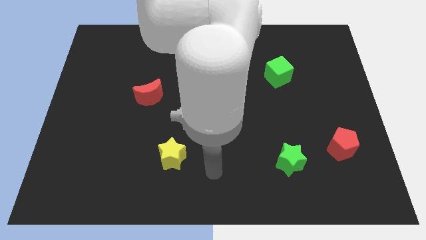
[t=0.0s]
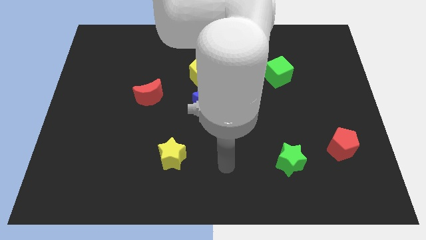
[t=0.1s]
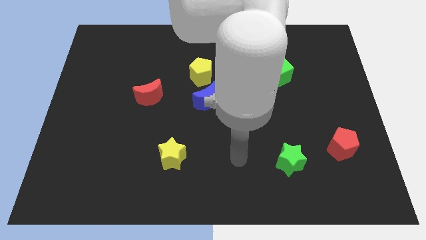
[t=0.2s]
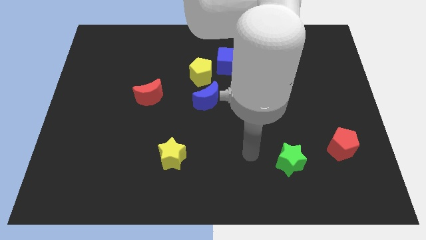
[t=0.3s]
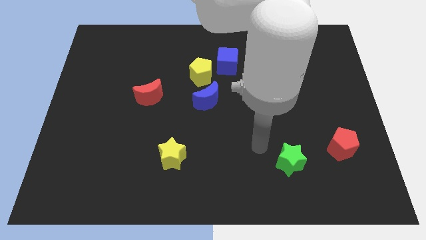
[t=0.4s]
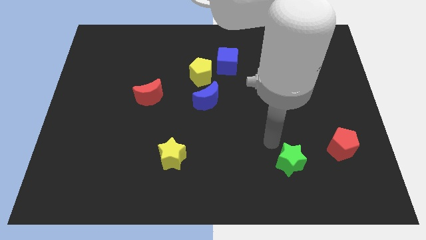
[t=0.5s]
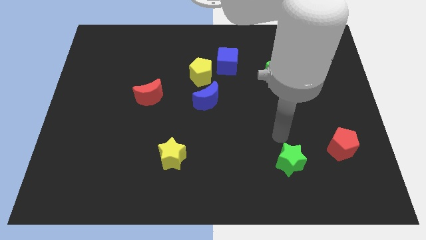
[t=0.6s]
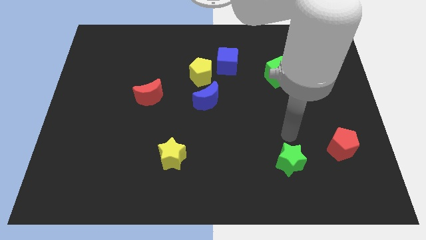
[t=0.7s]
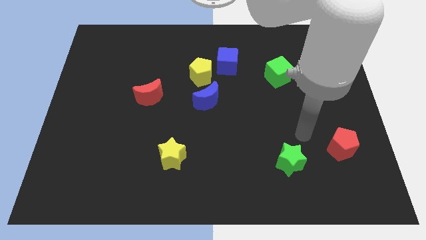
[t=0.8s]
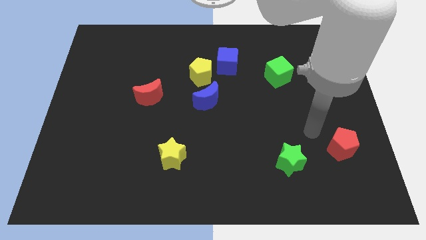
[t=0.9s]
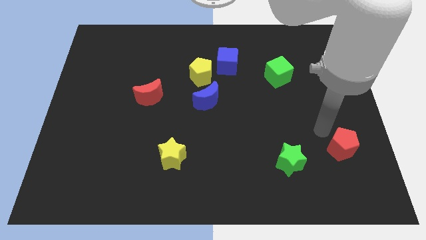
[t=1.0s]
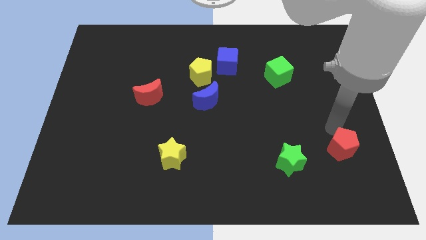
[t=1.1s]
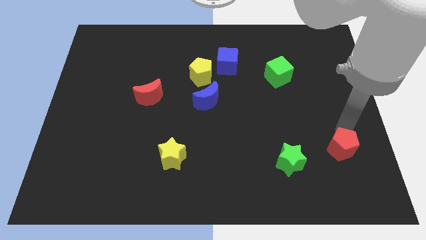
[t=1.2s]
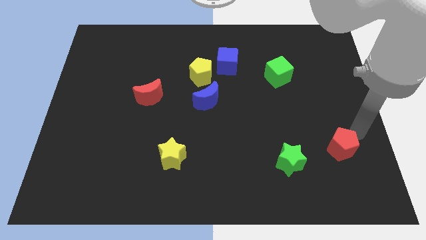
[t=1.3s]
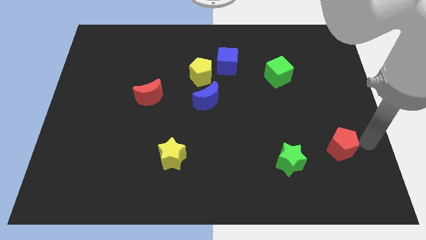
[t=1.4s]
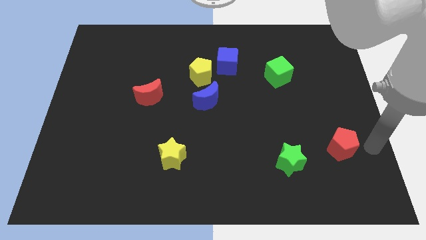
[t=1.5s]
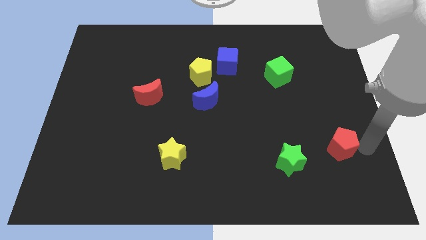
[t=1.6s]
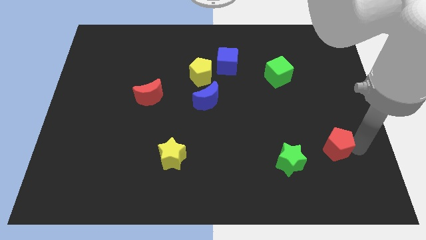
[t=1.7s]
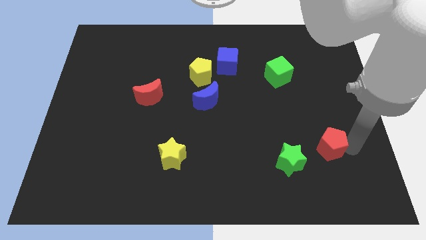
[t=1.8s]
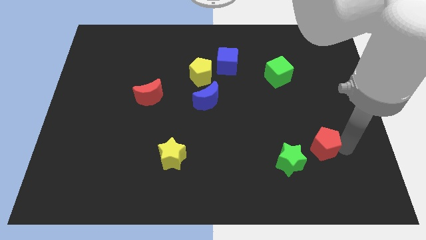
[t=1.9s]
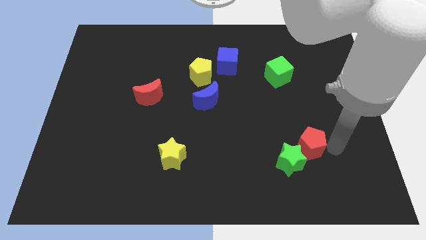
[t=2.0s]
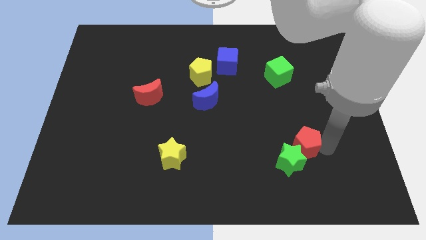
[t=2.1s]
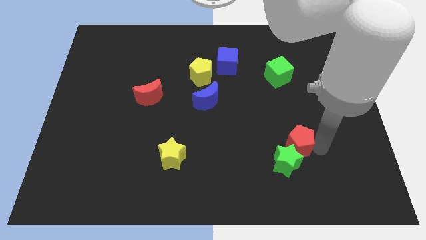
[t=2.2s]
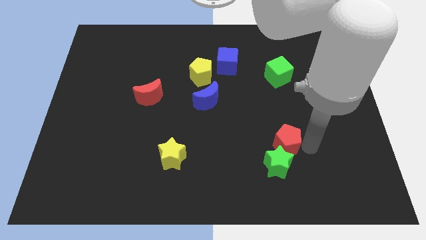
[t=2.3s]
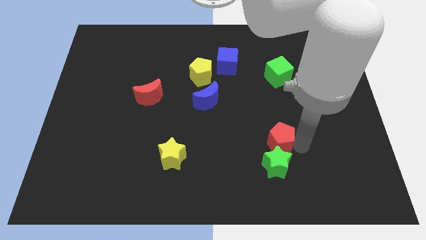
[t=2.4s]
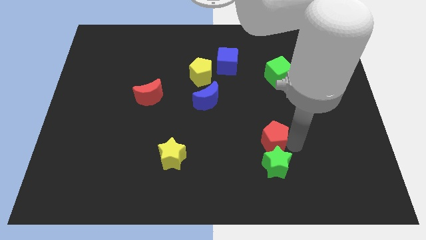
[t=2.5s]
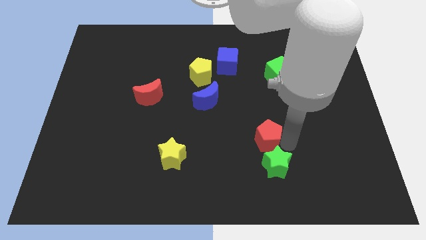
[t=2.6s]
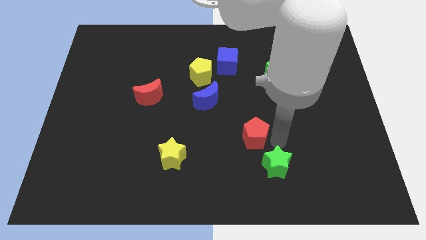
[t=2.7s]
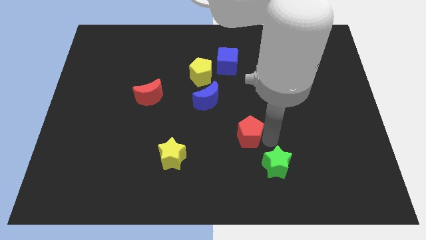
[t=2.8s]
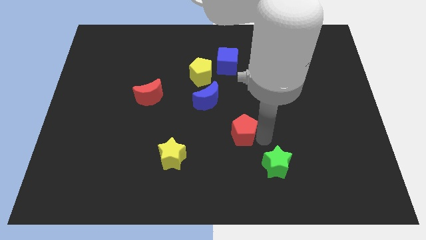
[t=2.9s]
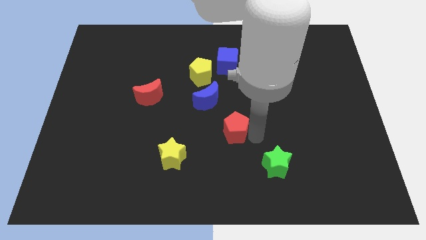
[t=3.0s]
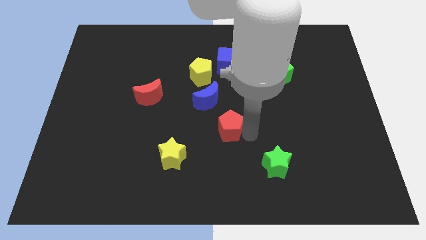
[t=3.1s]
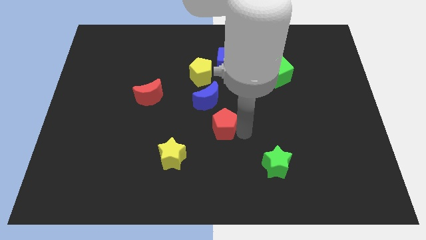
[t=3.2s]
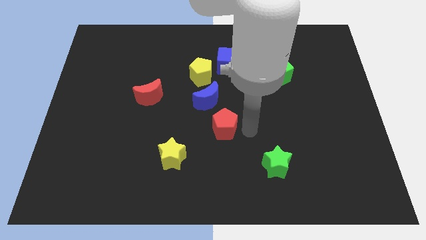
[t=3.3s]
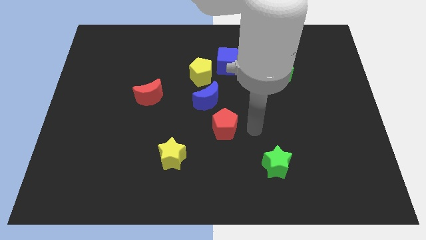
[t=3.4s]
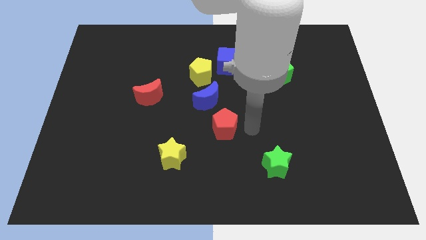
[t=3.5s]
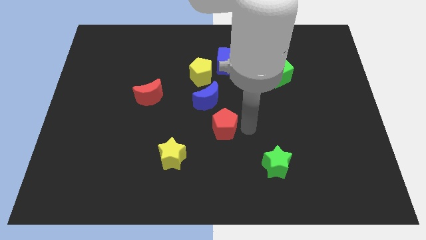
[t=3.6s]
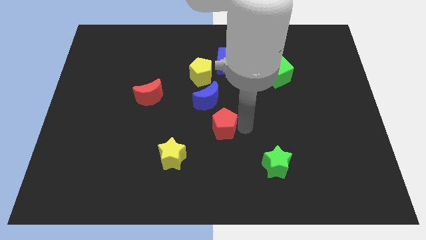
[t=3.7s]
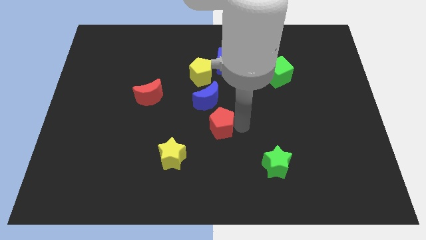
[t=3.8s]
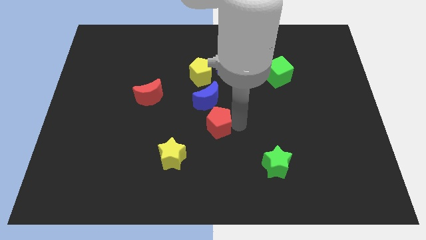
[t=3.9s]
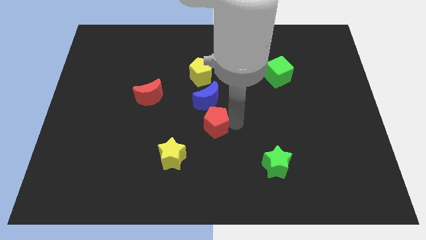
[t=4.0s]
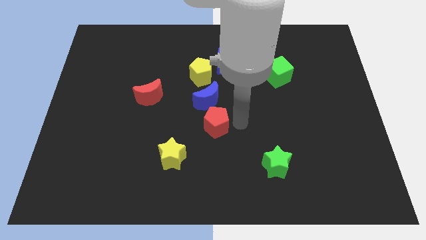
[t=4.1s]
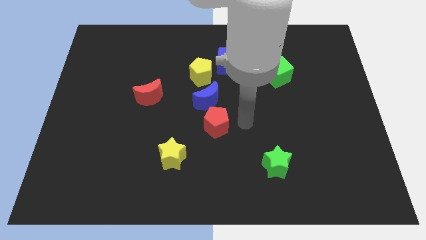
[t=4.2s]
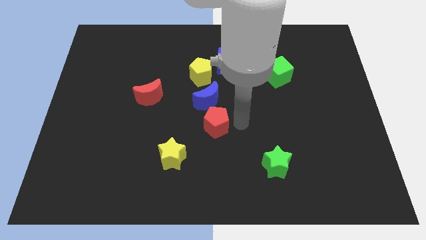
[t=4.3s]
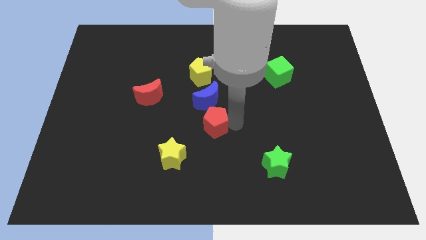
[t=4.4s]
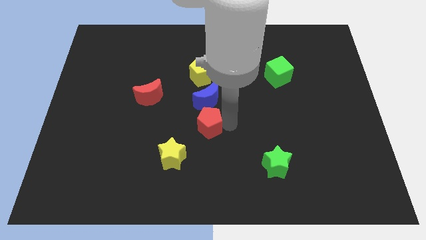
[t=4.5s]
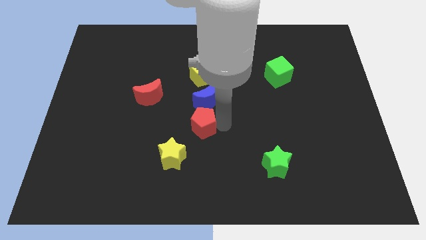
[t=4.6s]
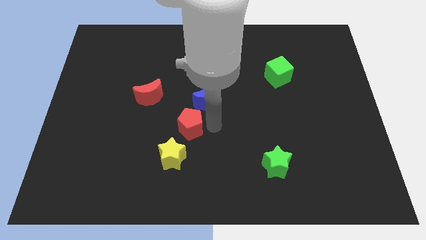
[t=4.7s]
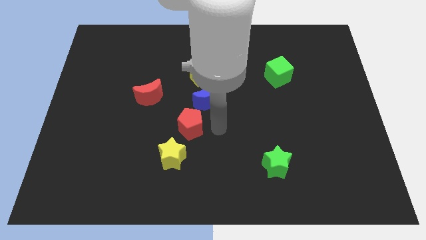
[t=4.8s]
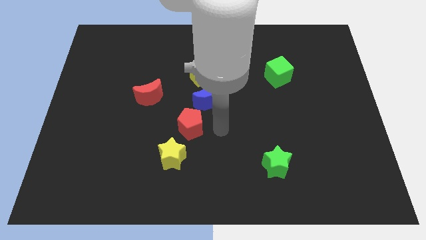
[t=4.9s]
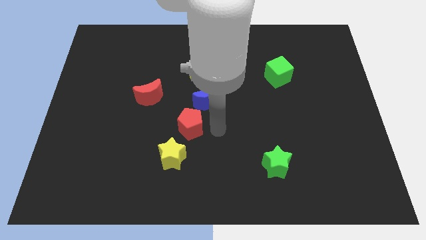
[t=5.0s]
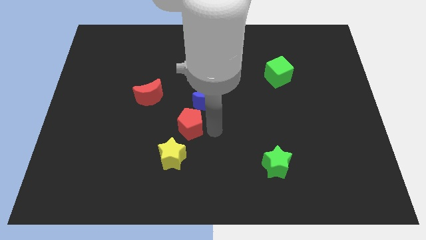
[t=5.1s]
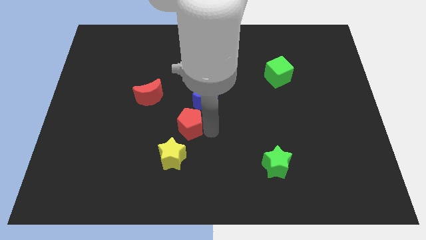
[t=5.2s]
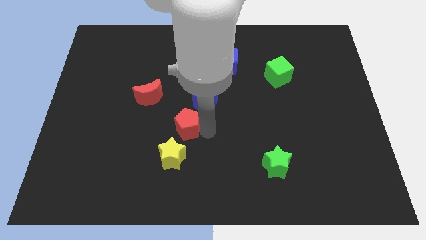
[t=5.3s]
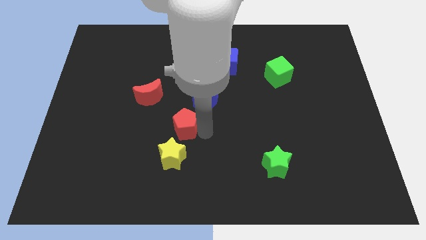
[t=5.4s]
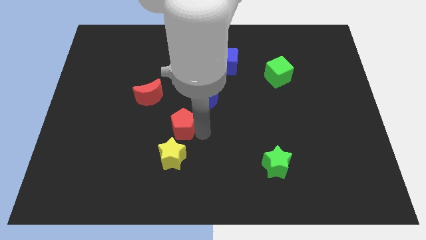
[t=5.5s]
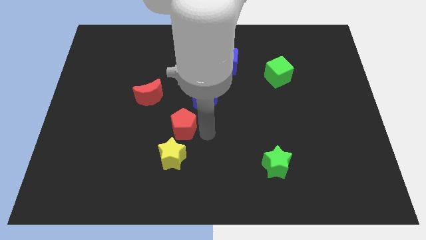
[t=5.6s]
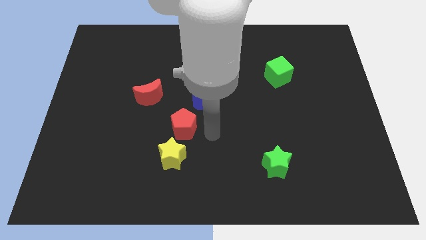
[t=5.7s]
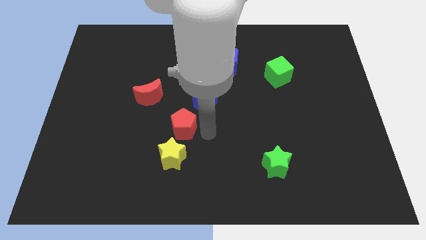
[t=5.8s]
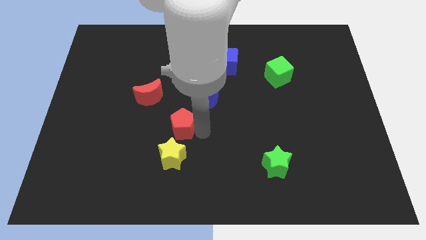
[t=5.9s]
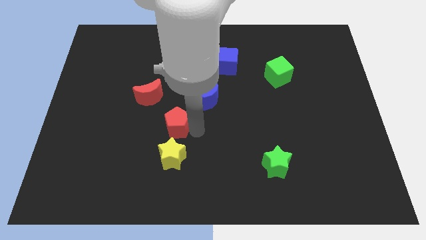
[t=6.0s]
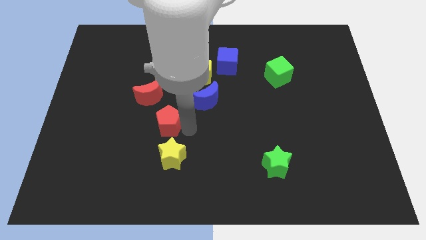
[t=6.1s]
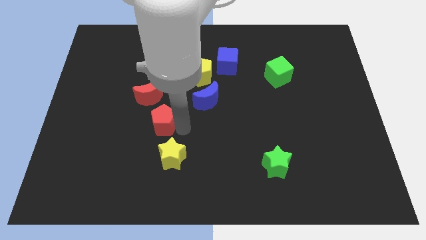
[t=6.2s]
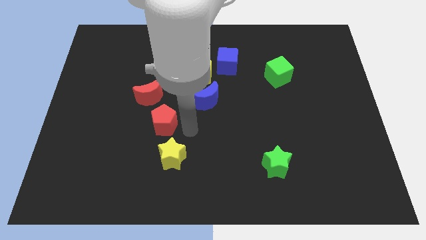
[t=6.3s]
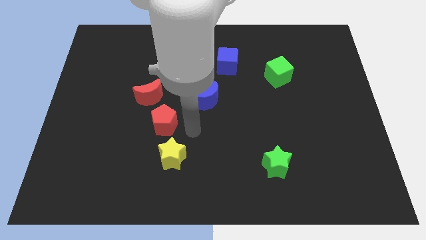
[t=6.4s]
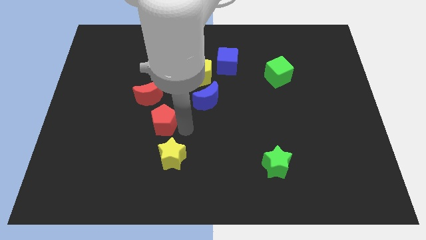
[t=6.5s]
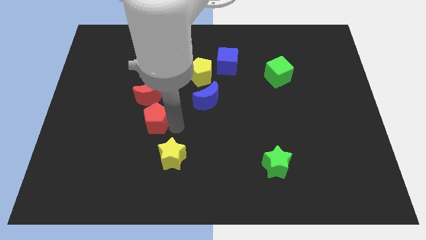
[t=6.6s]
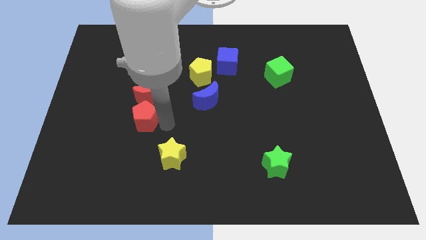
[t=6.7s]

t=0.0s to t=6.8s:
push the red pentagon to the bottom left of the red moon

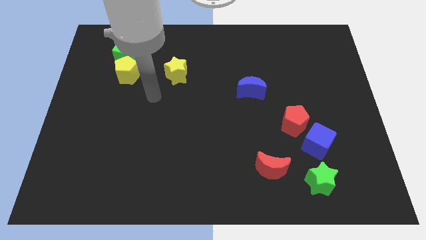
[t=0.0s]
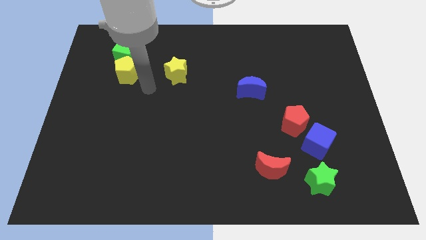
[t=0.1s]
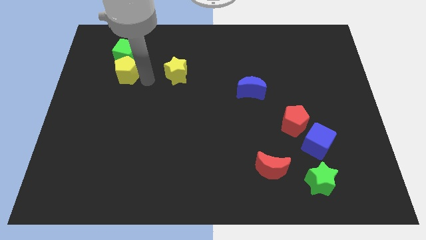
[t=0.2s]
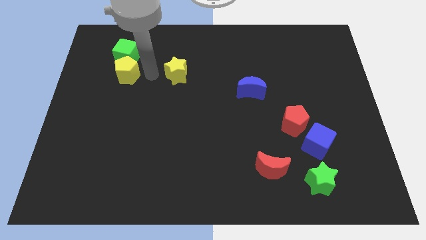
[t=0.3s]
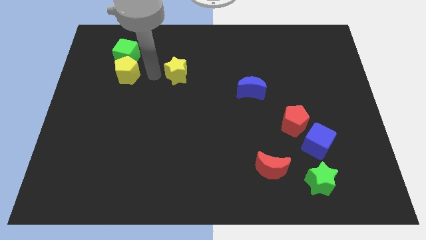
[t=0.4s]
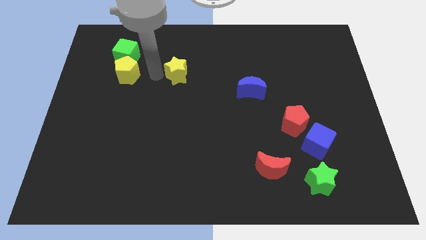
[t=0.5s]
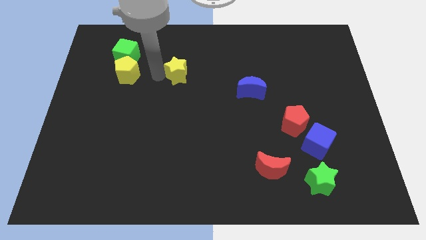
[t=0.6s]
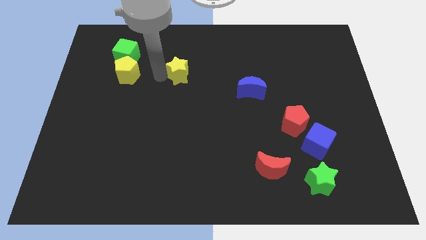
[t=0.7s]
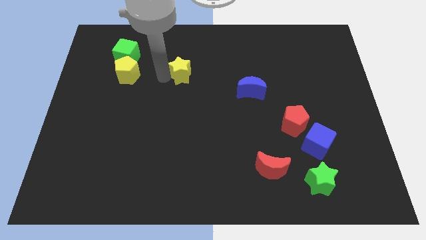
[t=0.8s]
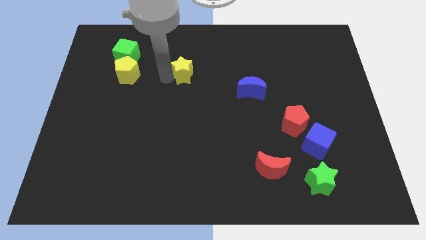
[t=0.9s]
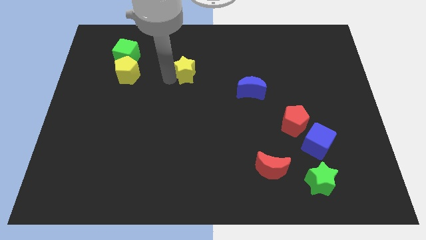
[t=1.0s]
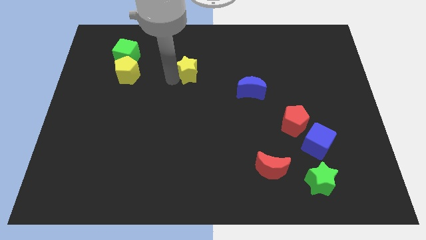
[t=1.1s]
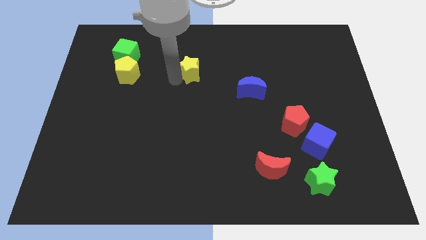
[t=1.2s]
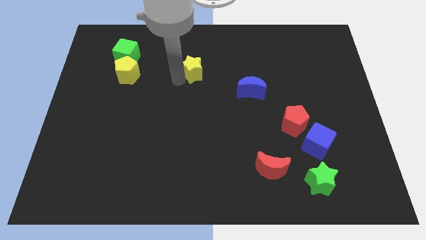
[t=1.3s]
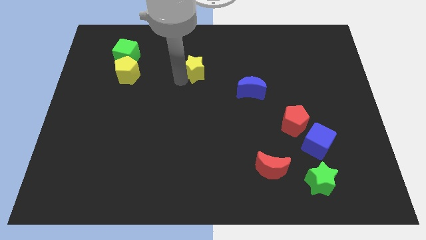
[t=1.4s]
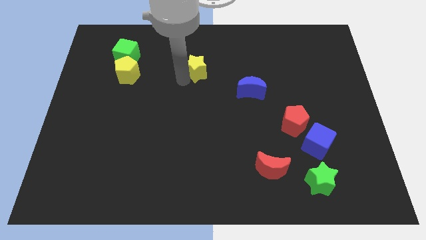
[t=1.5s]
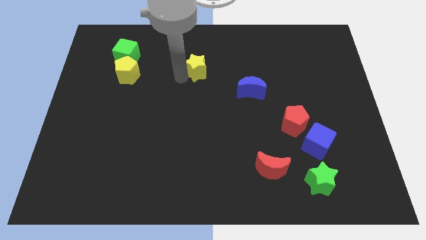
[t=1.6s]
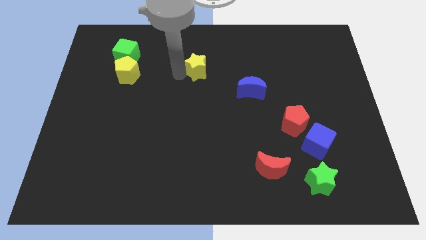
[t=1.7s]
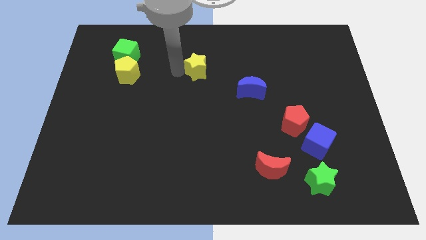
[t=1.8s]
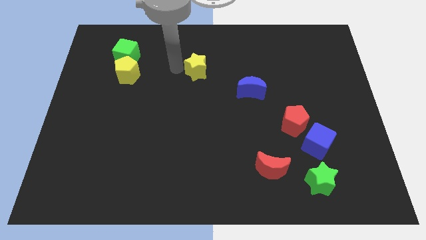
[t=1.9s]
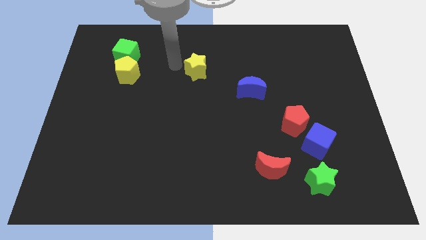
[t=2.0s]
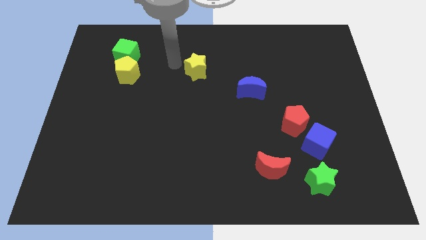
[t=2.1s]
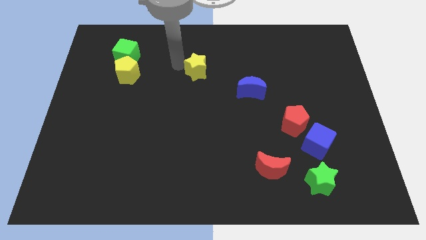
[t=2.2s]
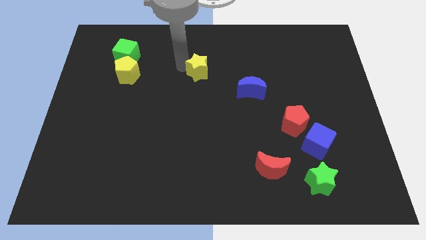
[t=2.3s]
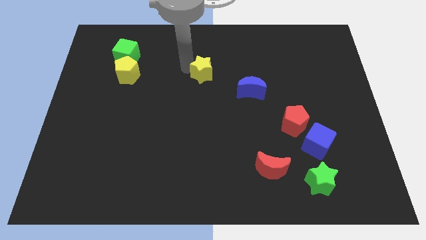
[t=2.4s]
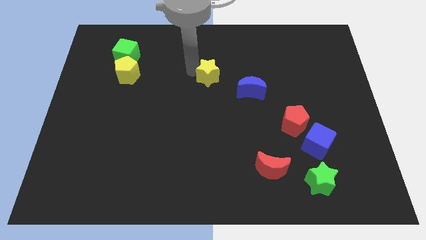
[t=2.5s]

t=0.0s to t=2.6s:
put the yellow star to the top left side of the blue moon
